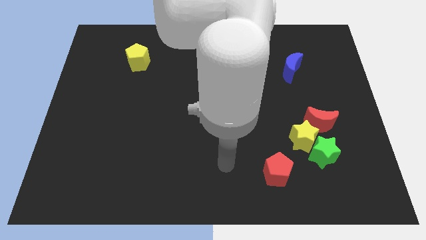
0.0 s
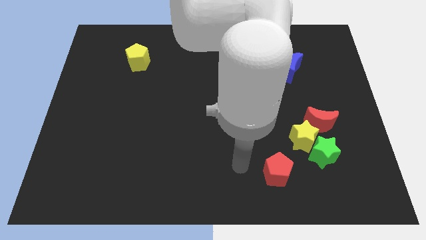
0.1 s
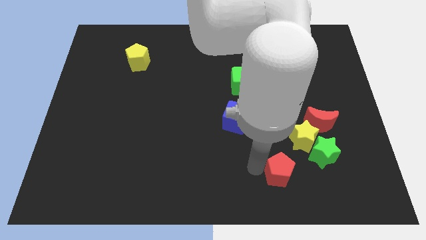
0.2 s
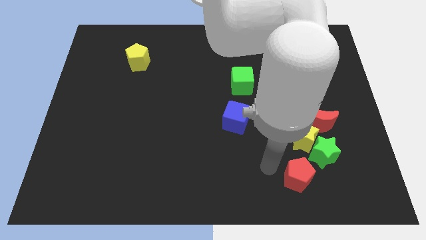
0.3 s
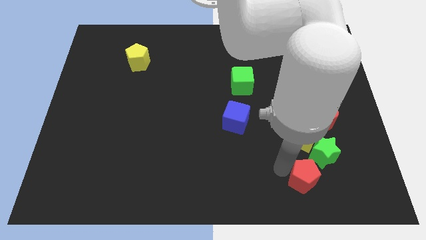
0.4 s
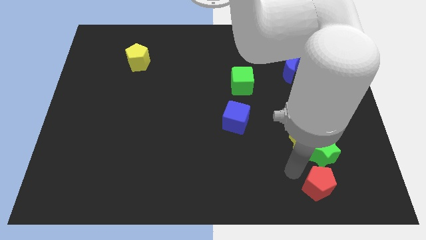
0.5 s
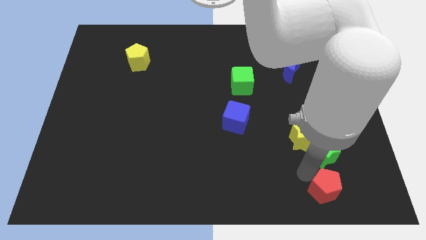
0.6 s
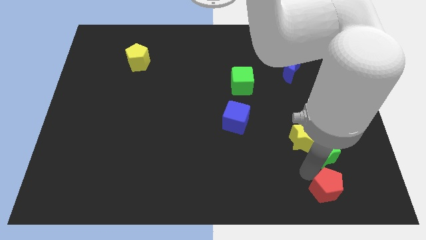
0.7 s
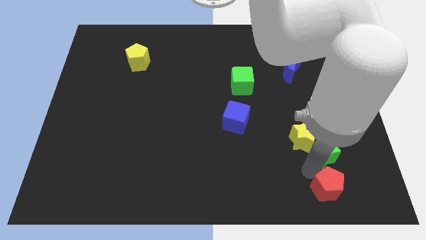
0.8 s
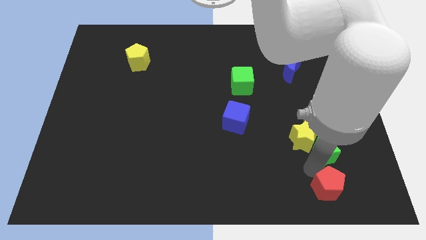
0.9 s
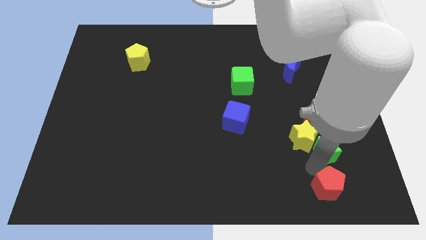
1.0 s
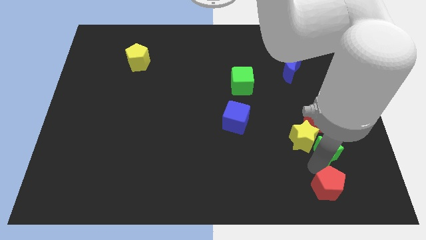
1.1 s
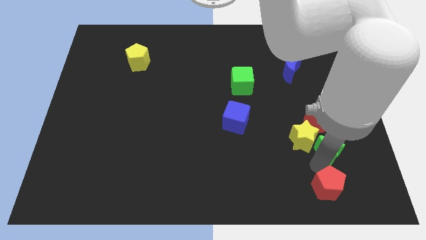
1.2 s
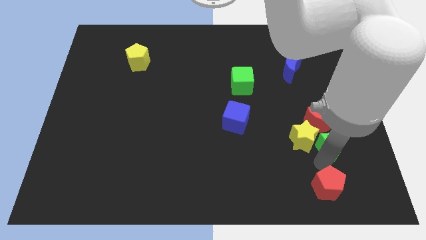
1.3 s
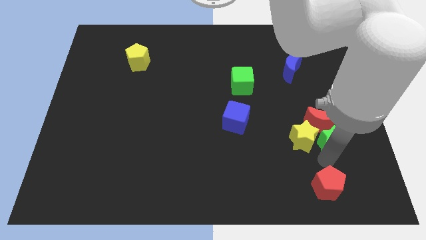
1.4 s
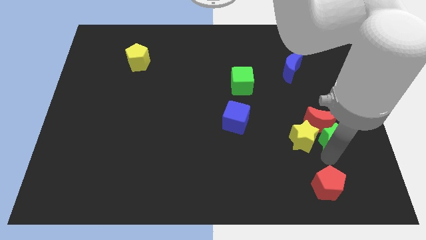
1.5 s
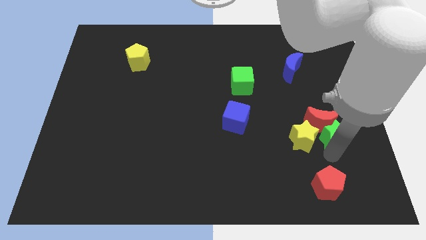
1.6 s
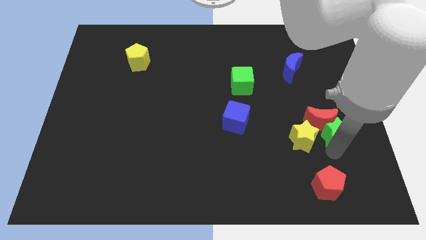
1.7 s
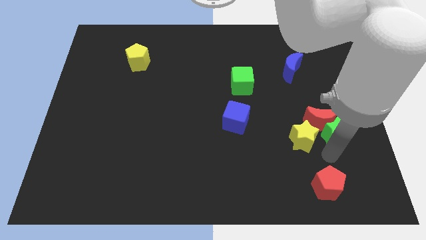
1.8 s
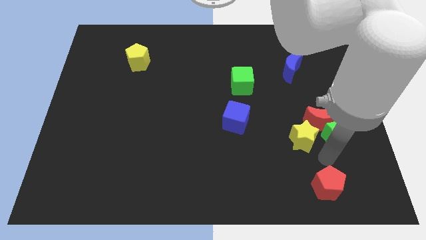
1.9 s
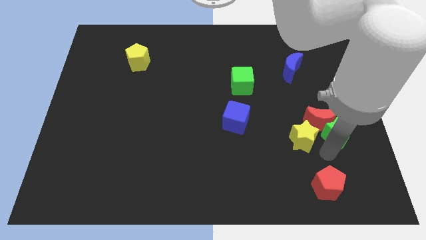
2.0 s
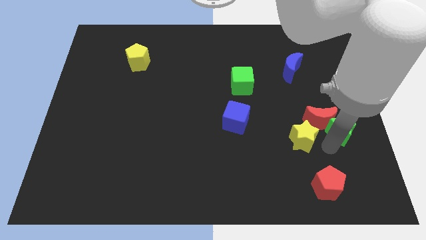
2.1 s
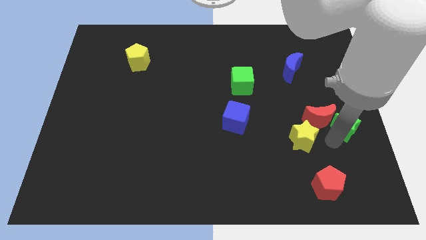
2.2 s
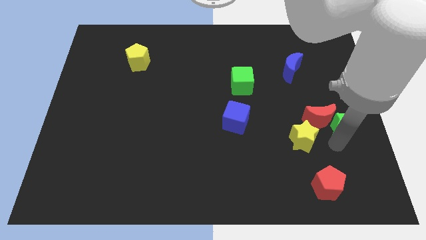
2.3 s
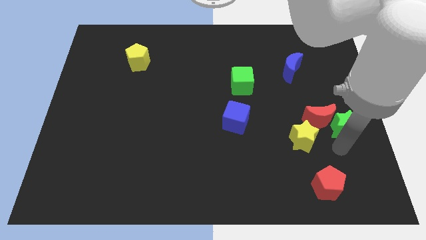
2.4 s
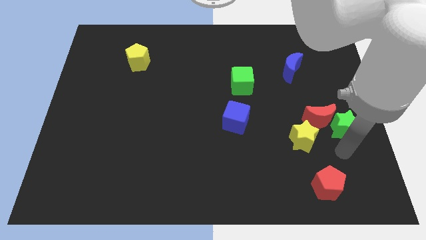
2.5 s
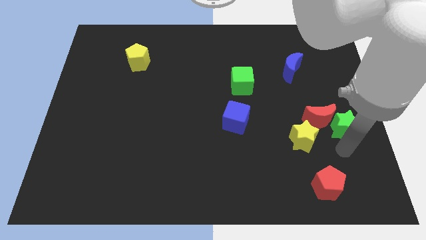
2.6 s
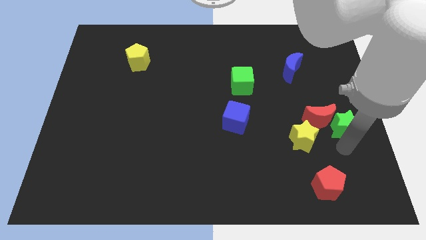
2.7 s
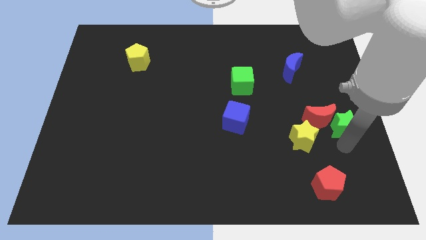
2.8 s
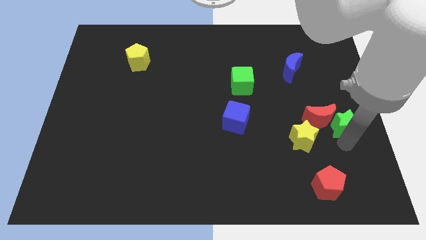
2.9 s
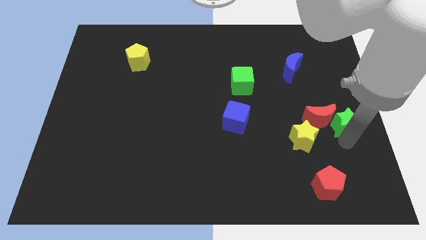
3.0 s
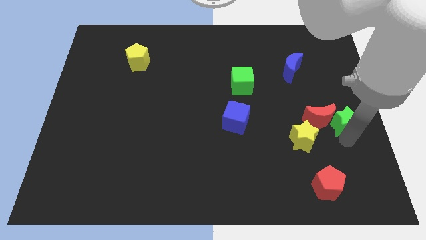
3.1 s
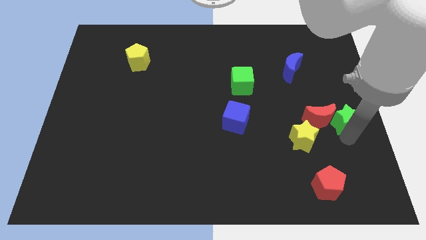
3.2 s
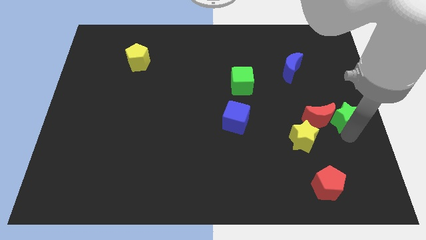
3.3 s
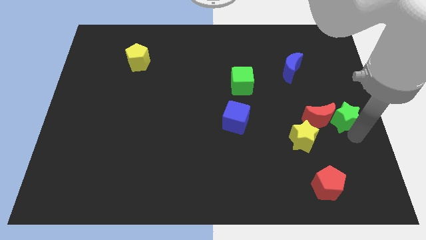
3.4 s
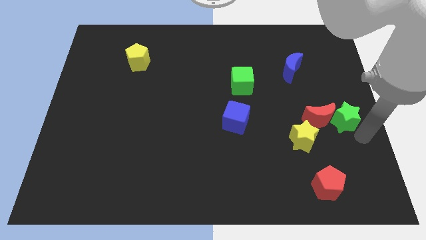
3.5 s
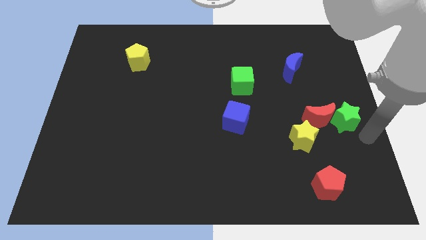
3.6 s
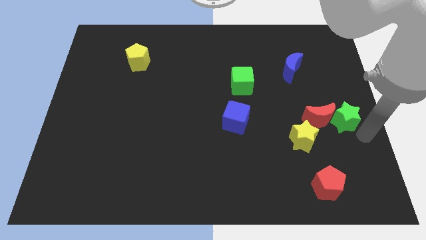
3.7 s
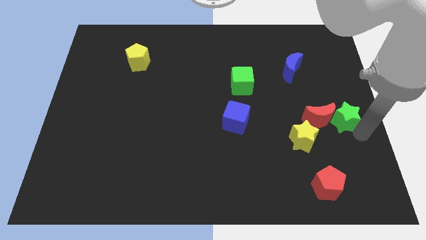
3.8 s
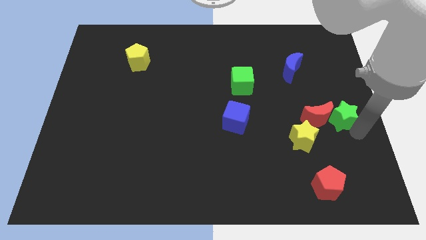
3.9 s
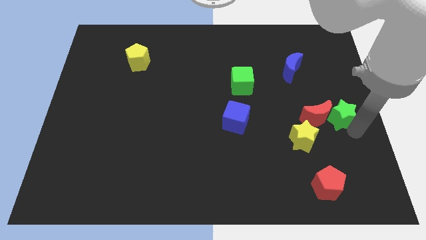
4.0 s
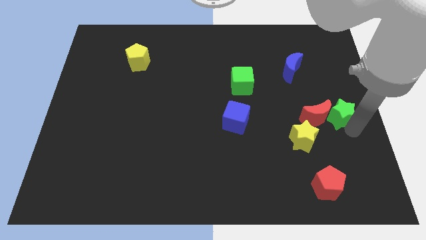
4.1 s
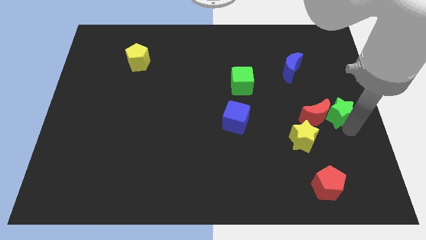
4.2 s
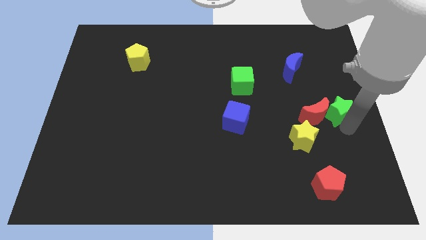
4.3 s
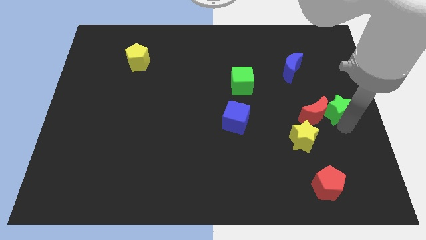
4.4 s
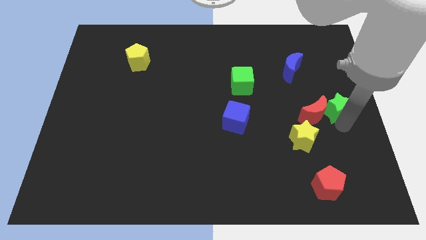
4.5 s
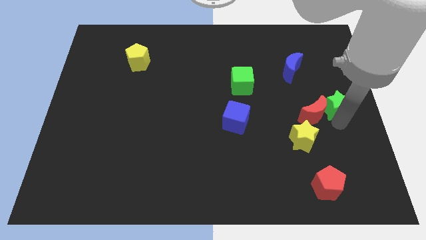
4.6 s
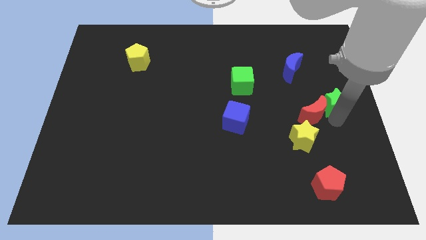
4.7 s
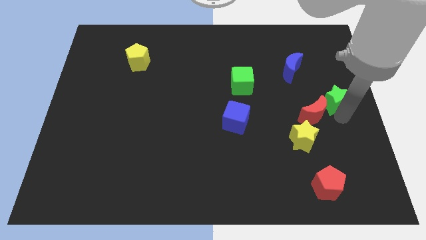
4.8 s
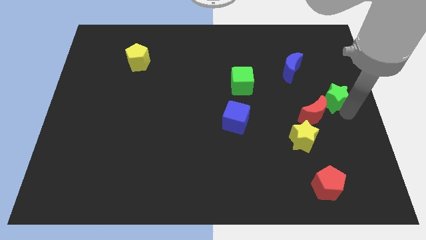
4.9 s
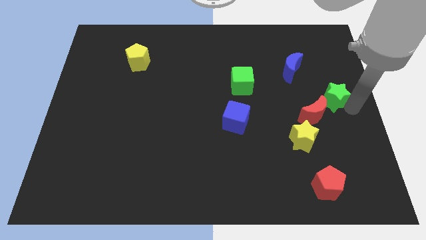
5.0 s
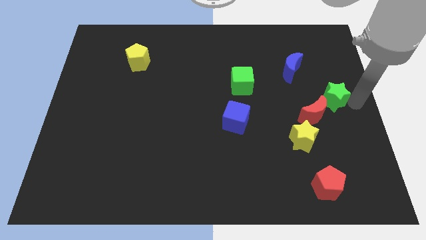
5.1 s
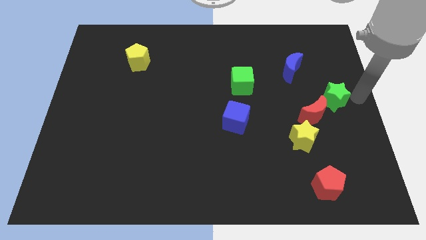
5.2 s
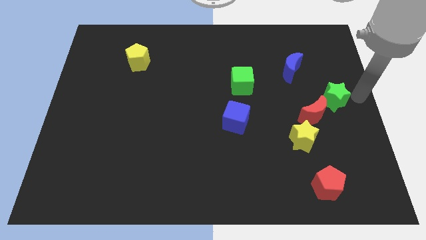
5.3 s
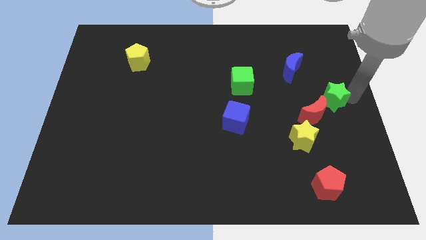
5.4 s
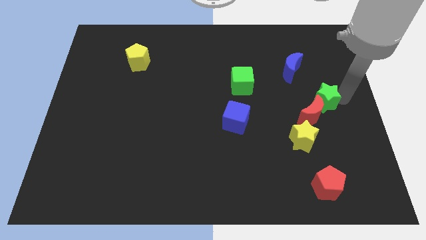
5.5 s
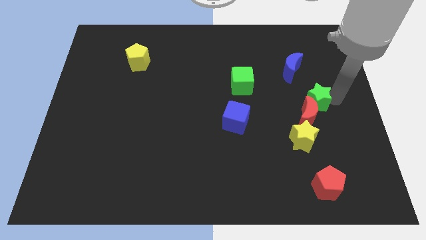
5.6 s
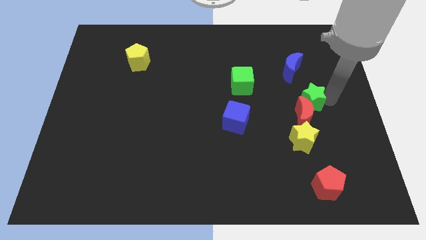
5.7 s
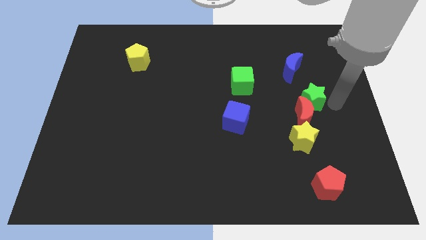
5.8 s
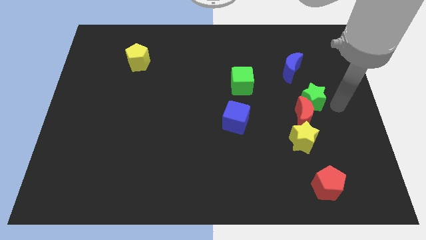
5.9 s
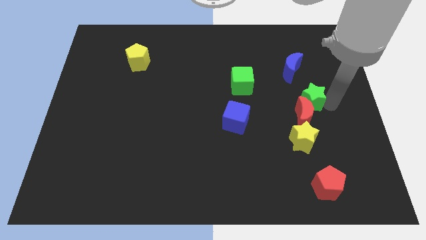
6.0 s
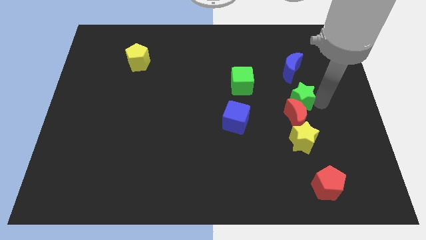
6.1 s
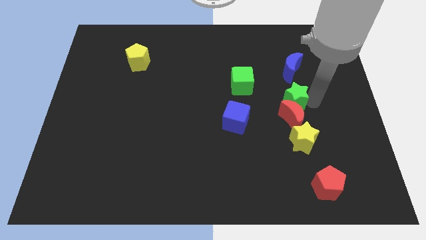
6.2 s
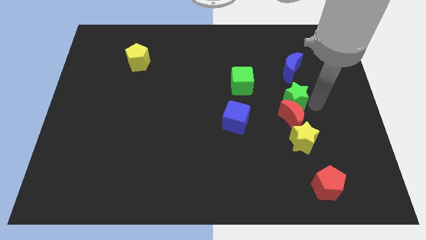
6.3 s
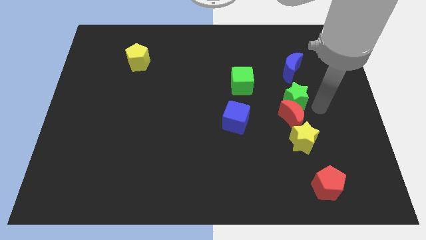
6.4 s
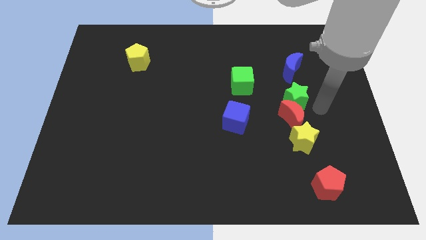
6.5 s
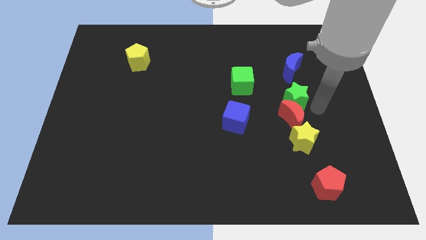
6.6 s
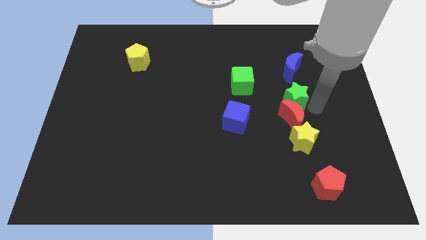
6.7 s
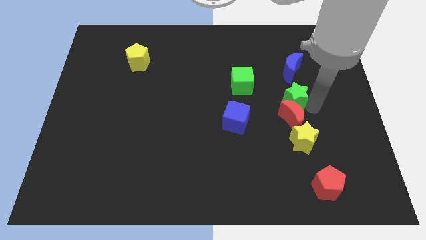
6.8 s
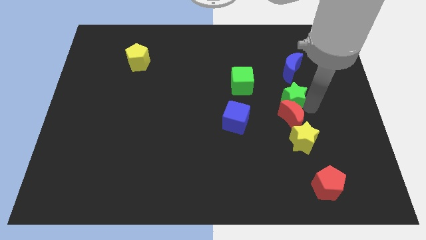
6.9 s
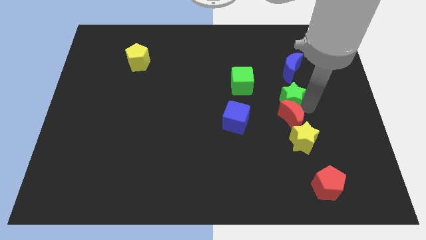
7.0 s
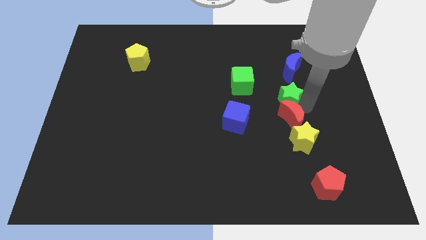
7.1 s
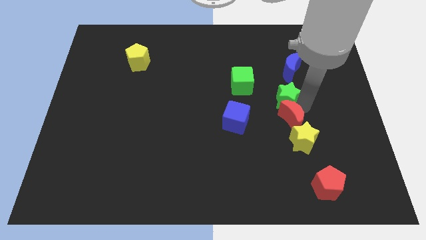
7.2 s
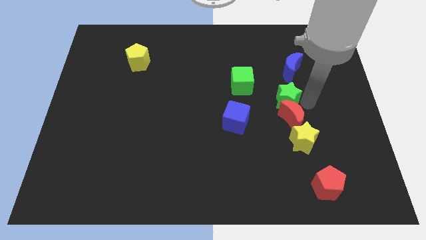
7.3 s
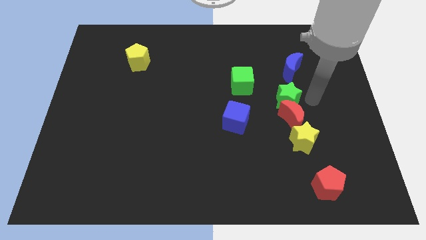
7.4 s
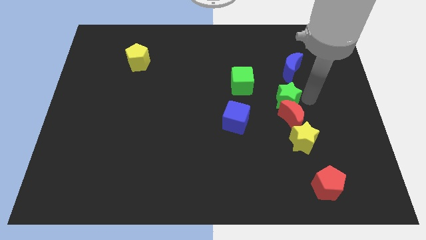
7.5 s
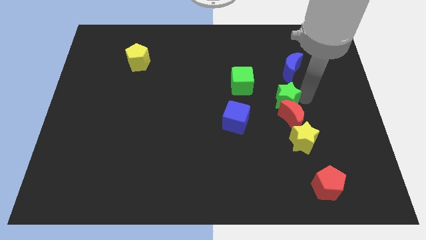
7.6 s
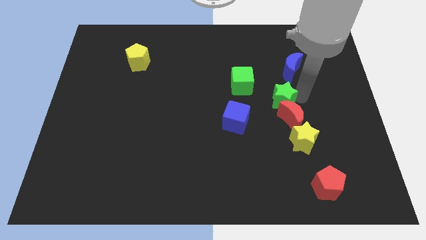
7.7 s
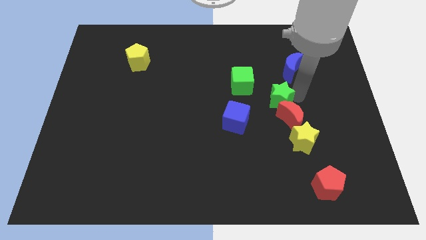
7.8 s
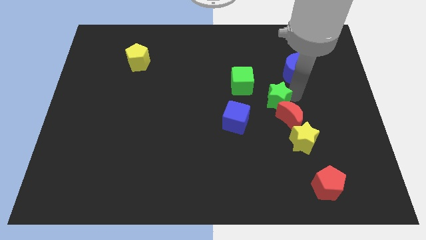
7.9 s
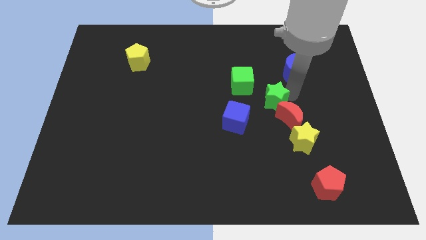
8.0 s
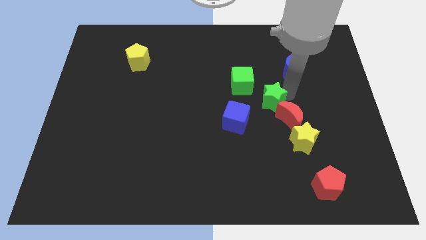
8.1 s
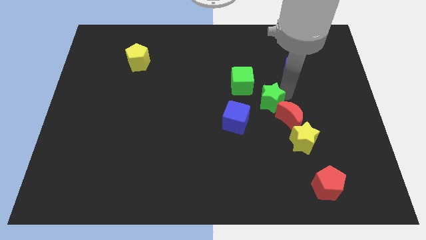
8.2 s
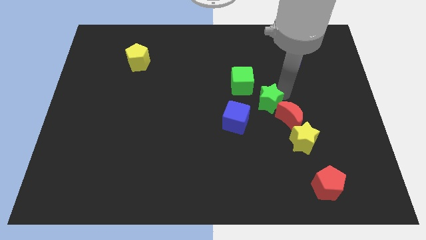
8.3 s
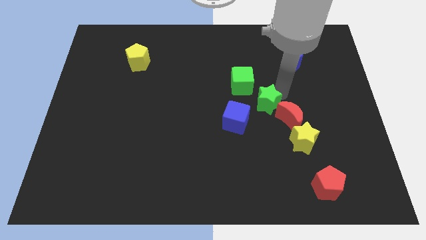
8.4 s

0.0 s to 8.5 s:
push the green star to the center
